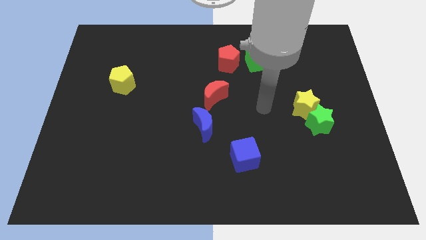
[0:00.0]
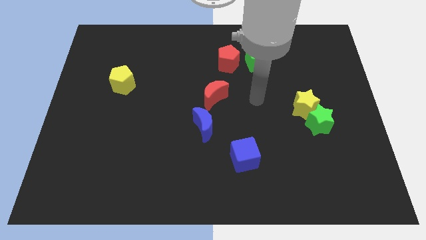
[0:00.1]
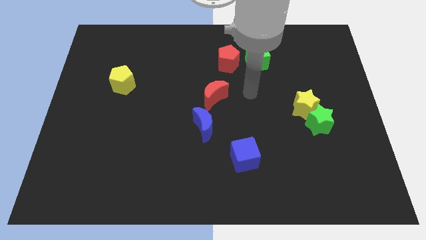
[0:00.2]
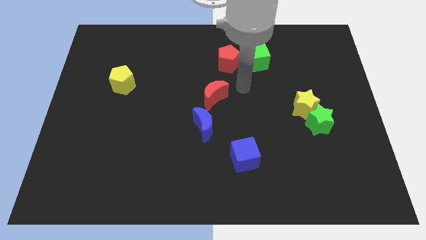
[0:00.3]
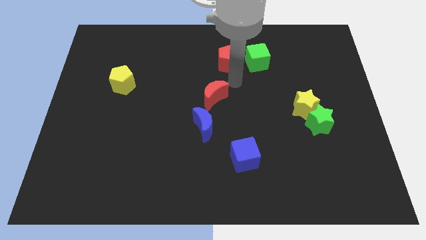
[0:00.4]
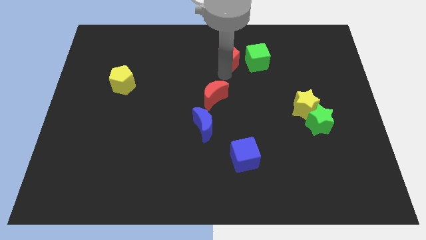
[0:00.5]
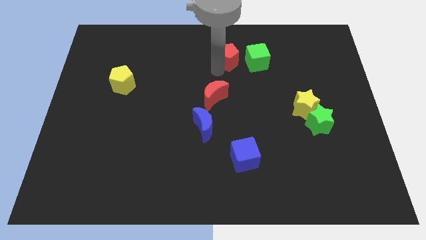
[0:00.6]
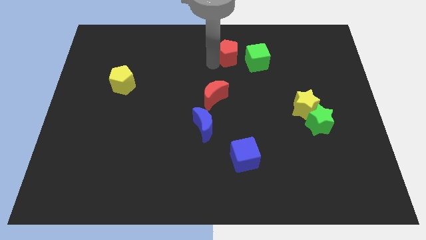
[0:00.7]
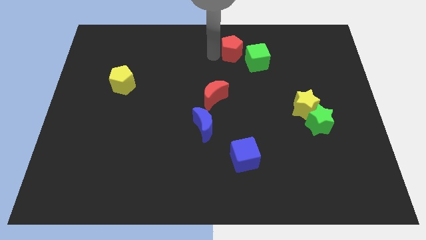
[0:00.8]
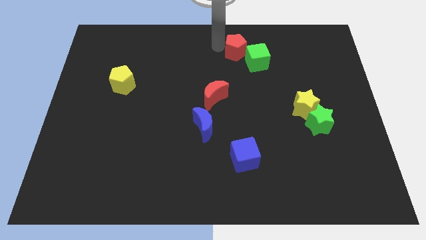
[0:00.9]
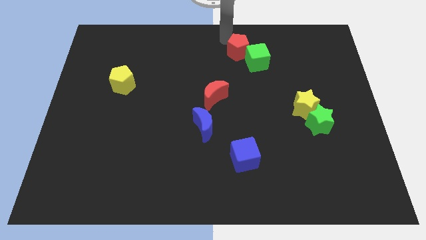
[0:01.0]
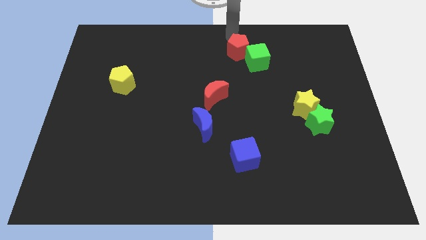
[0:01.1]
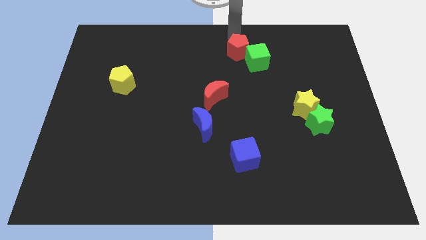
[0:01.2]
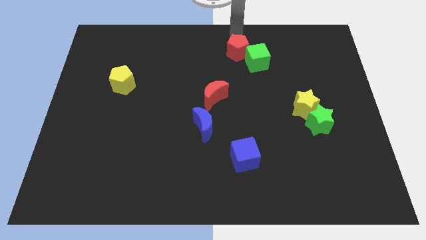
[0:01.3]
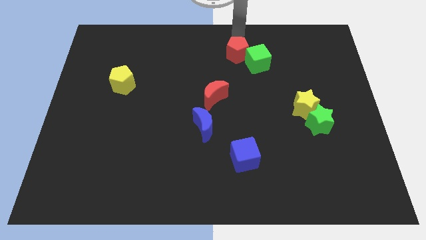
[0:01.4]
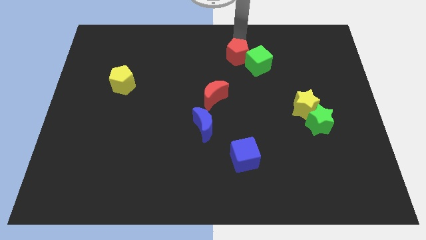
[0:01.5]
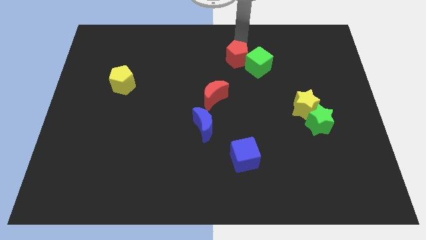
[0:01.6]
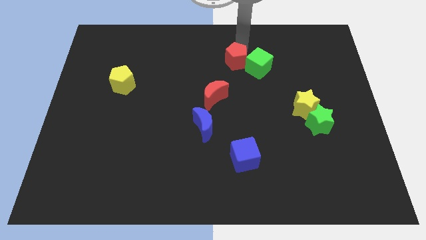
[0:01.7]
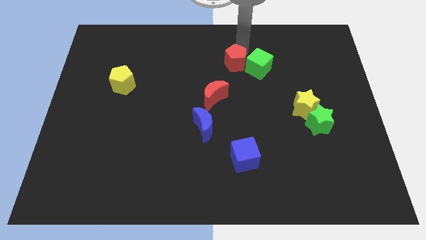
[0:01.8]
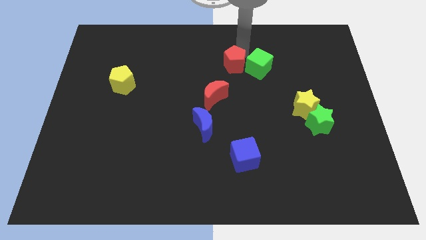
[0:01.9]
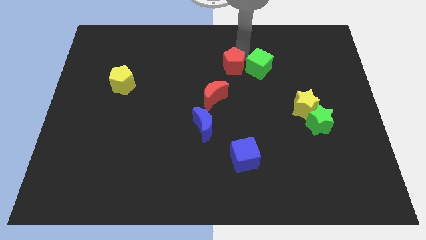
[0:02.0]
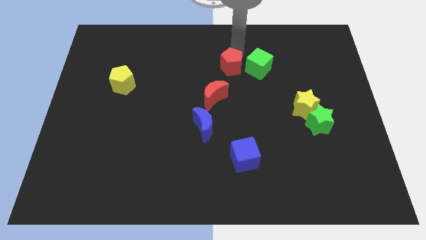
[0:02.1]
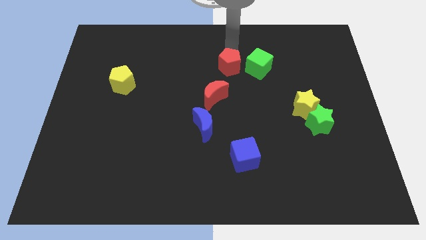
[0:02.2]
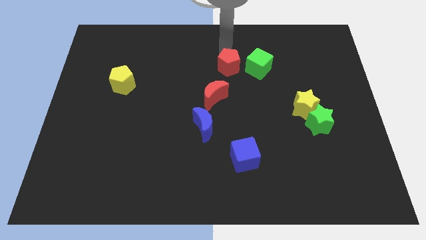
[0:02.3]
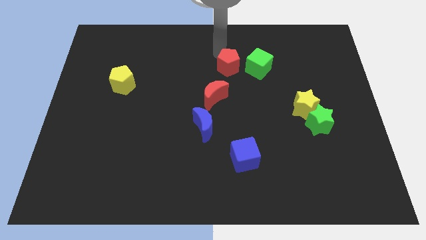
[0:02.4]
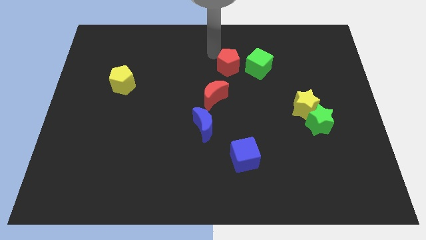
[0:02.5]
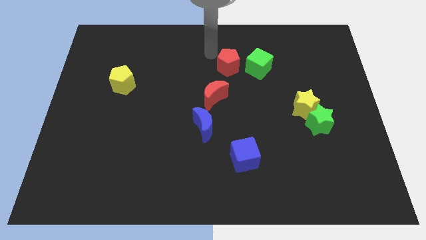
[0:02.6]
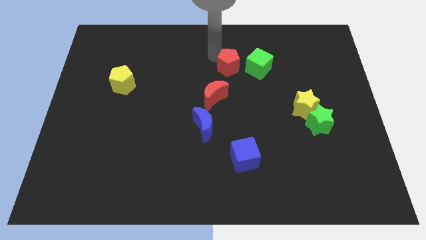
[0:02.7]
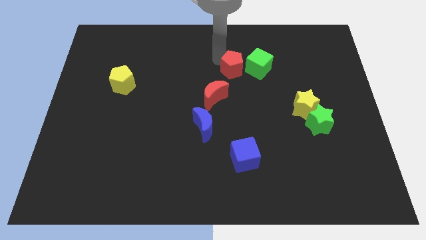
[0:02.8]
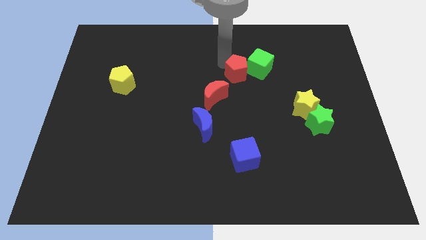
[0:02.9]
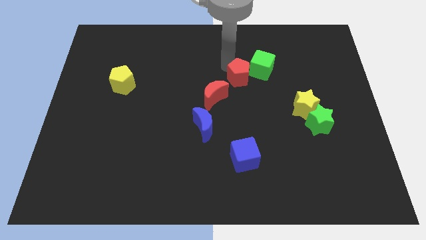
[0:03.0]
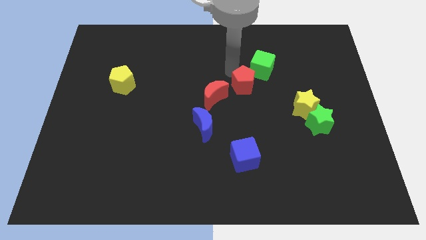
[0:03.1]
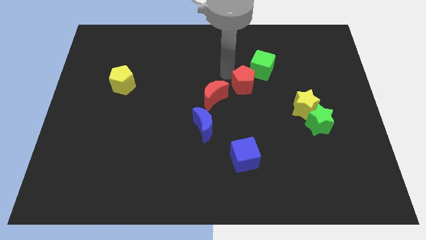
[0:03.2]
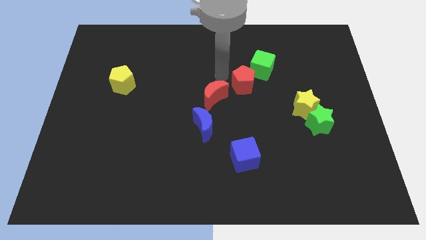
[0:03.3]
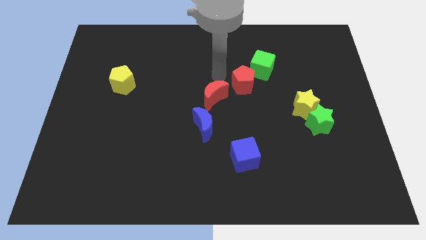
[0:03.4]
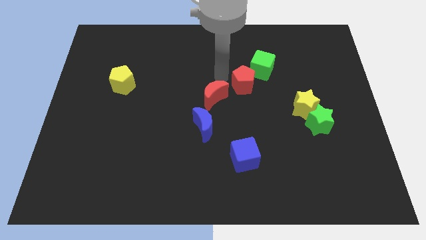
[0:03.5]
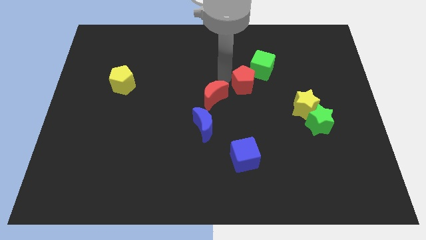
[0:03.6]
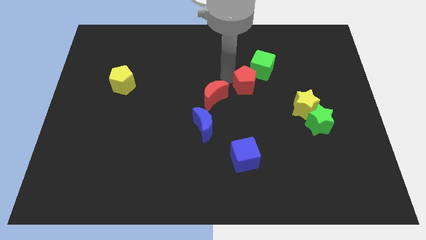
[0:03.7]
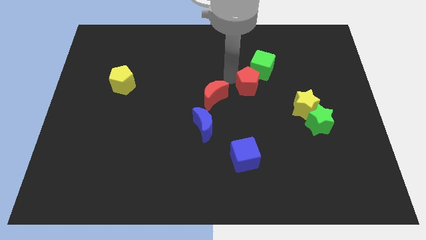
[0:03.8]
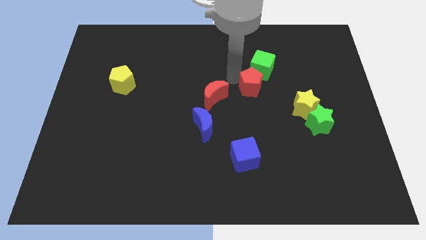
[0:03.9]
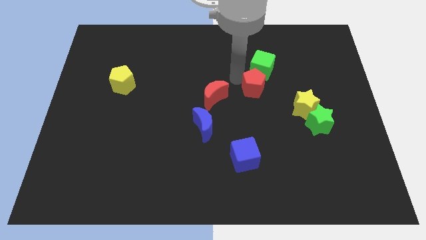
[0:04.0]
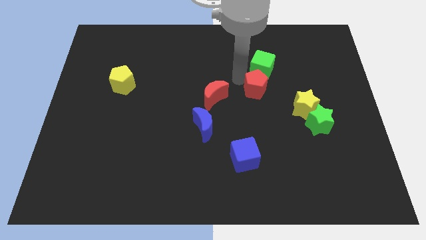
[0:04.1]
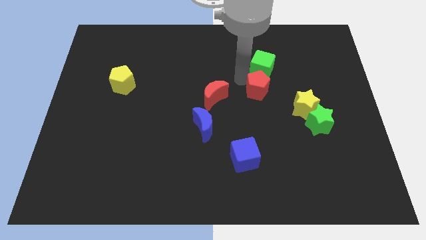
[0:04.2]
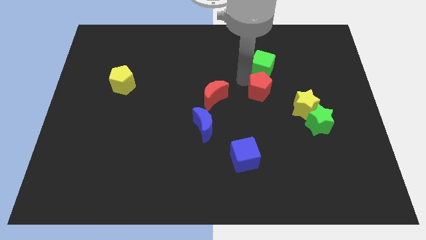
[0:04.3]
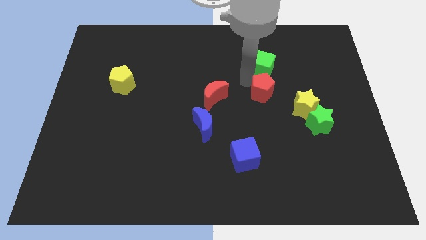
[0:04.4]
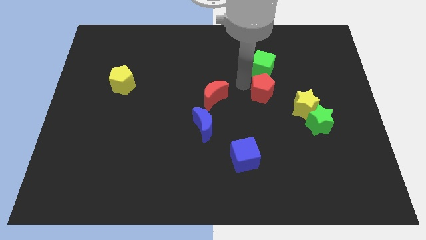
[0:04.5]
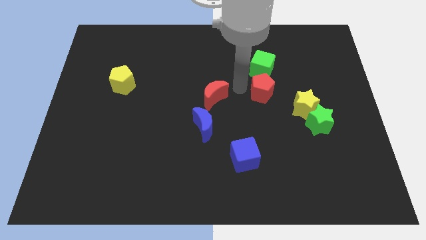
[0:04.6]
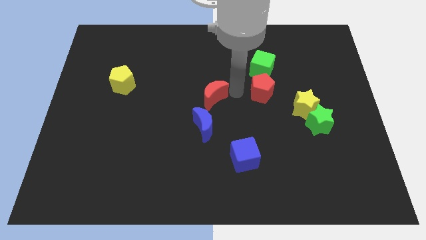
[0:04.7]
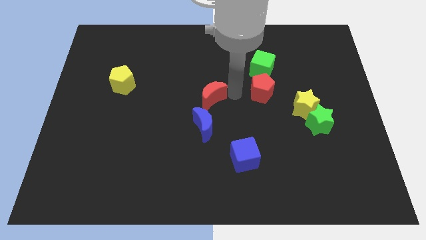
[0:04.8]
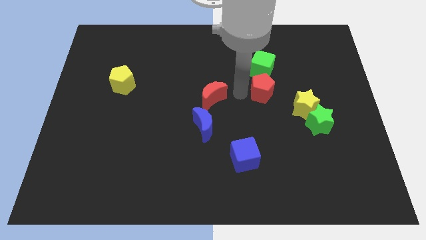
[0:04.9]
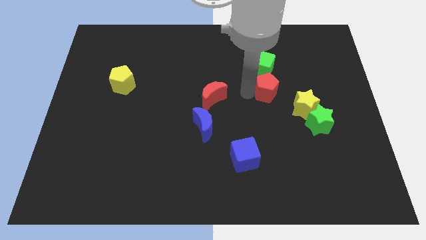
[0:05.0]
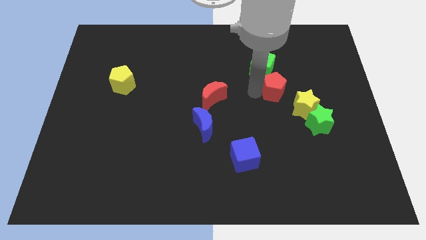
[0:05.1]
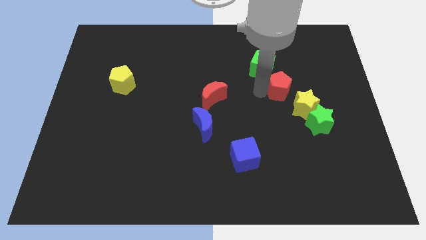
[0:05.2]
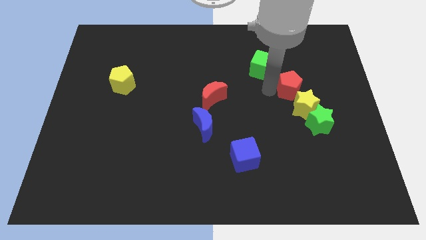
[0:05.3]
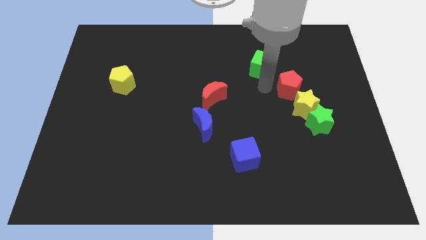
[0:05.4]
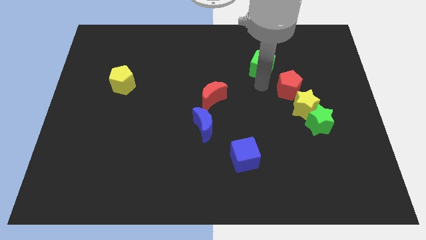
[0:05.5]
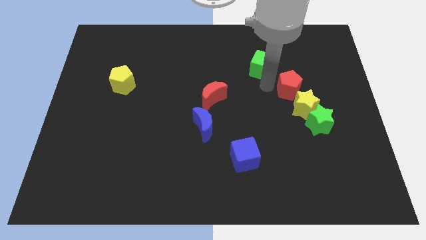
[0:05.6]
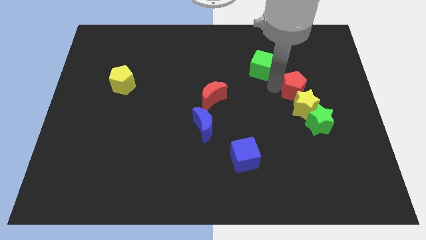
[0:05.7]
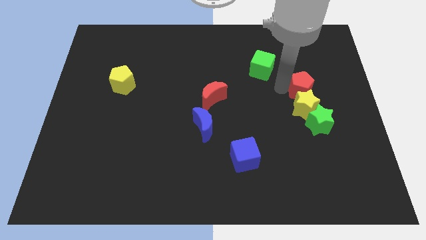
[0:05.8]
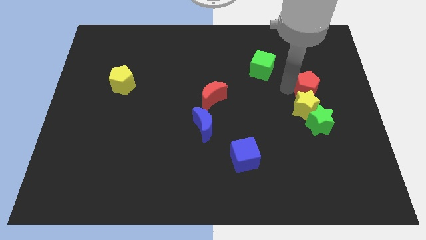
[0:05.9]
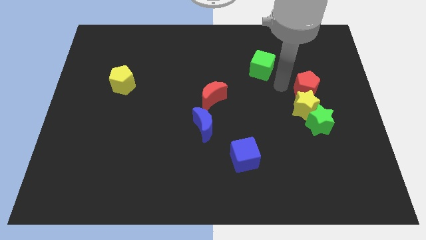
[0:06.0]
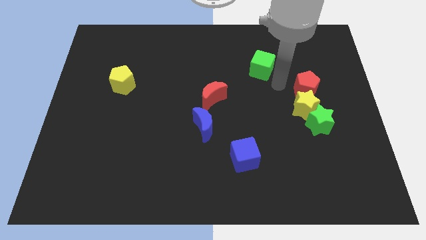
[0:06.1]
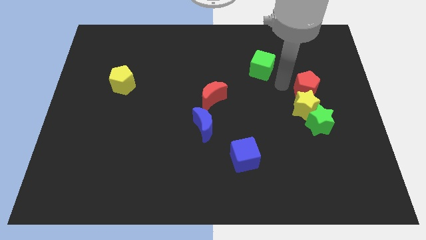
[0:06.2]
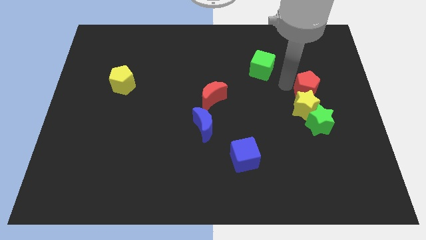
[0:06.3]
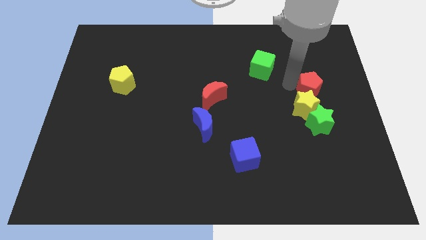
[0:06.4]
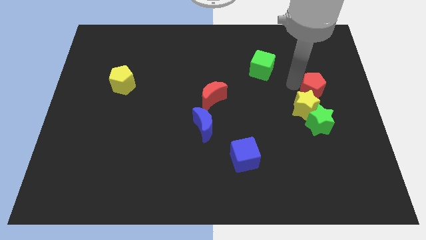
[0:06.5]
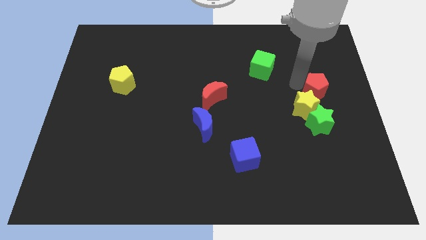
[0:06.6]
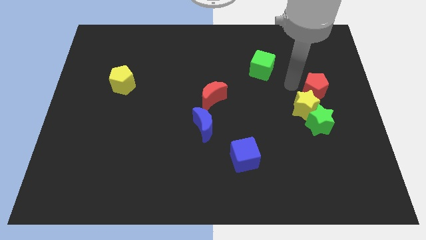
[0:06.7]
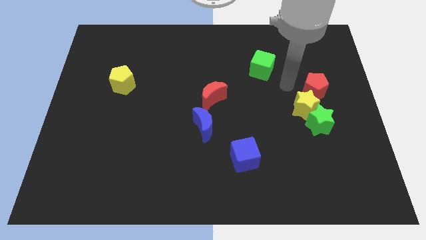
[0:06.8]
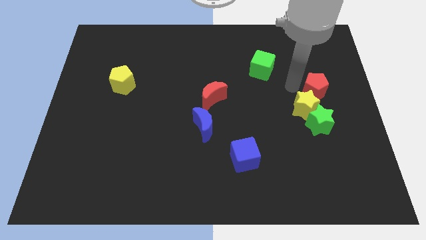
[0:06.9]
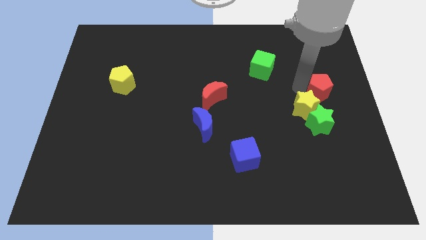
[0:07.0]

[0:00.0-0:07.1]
push the red pentagon to the right side of the board
